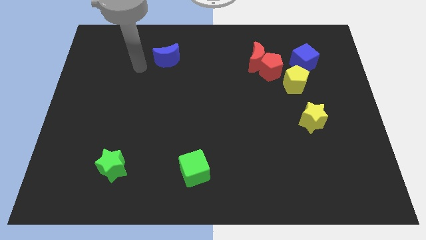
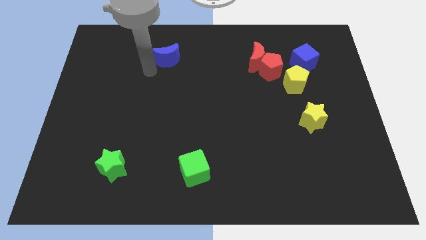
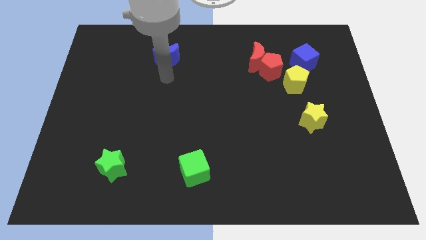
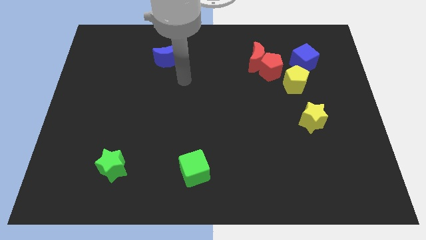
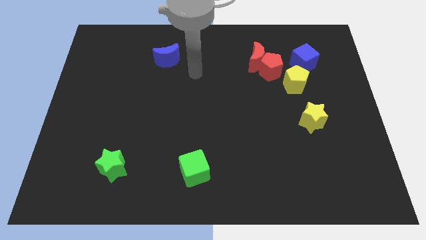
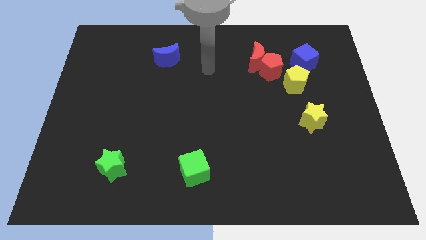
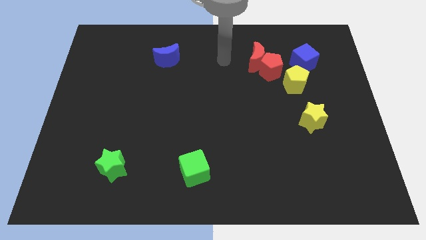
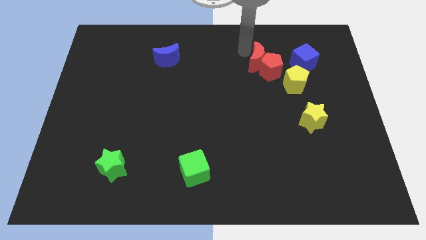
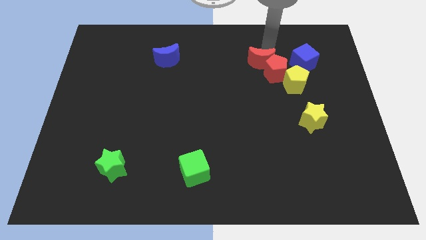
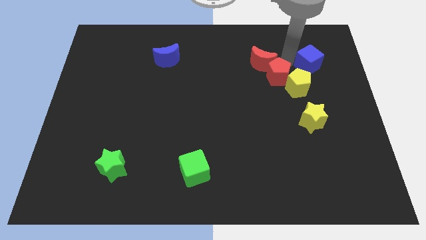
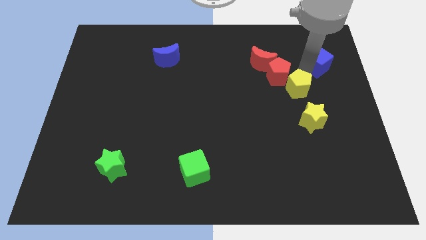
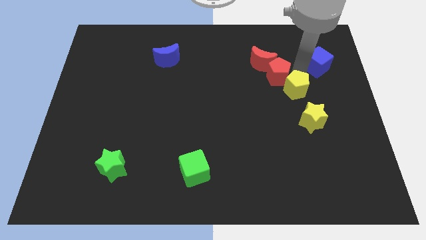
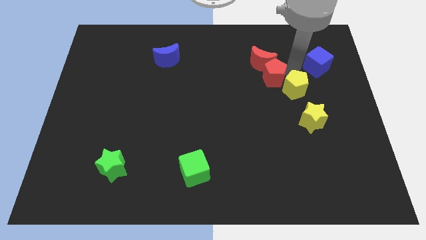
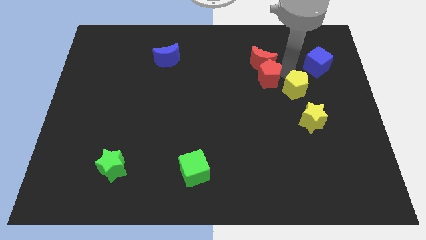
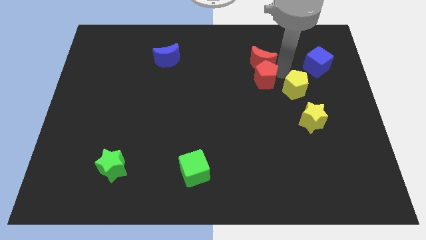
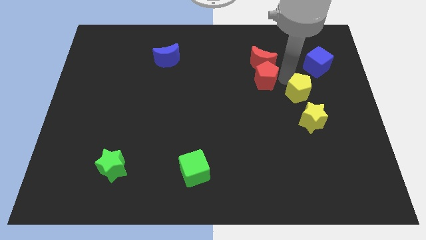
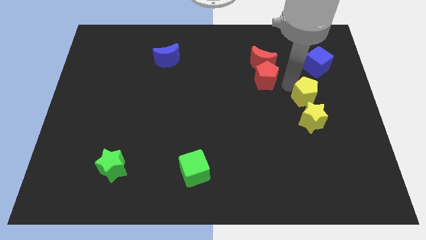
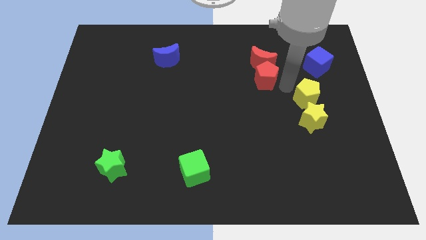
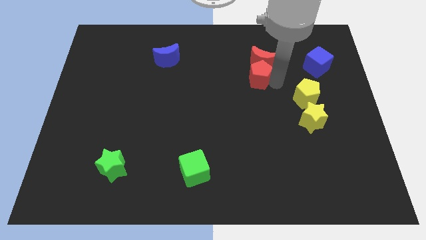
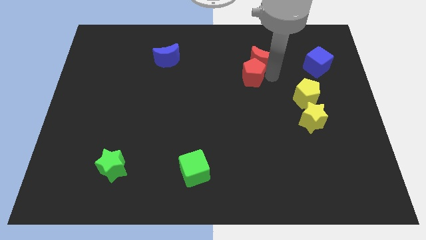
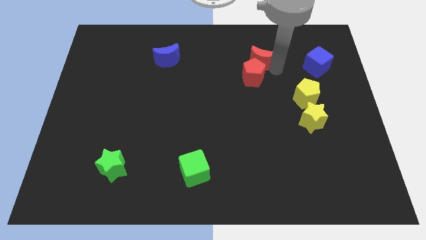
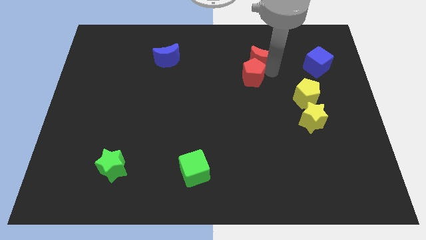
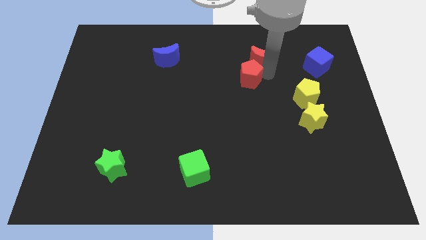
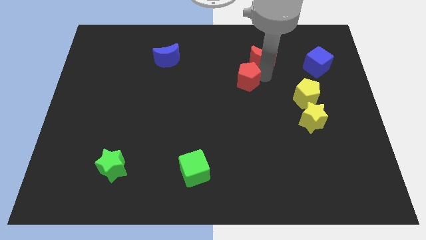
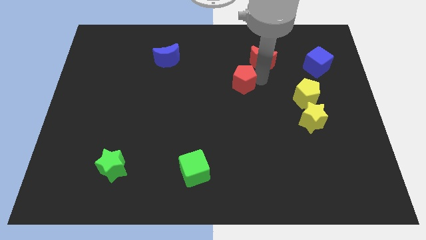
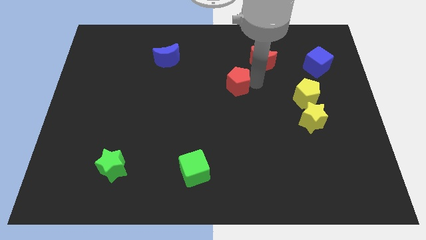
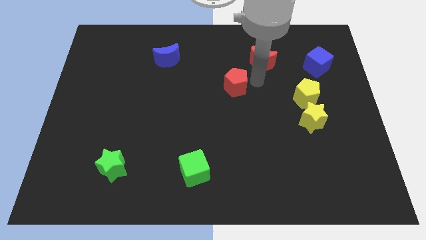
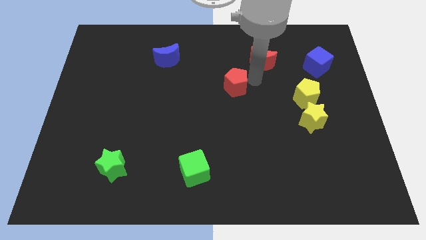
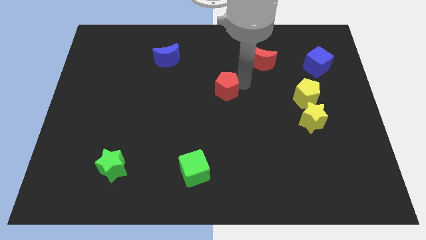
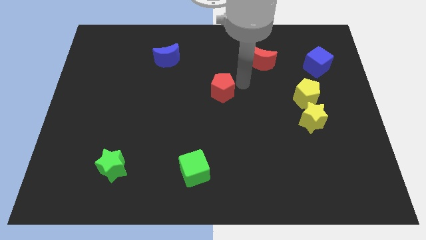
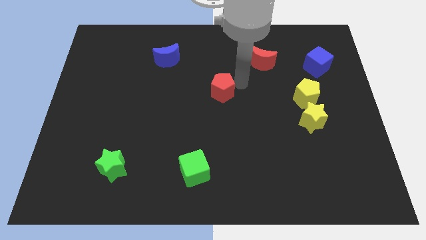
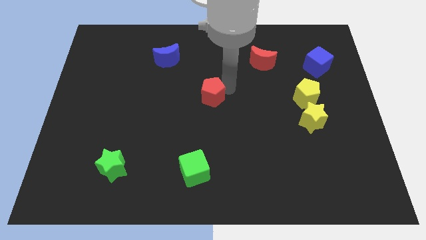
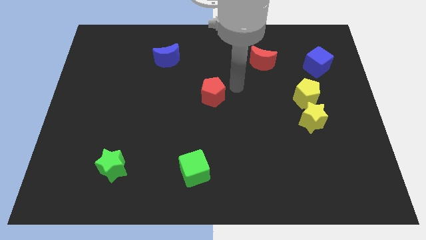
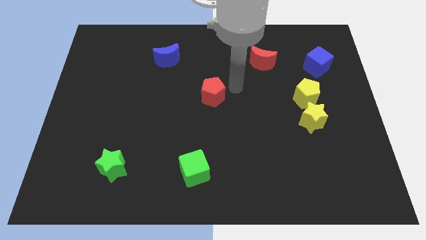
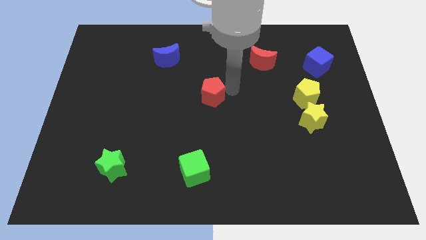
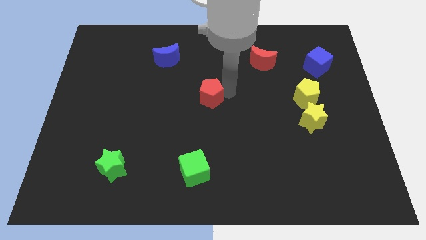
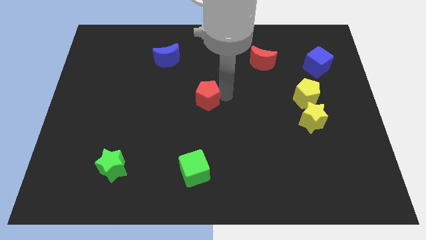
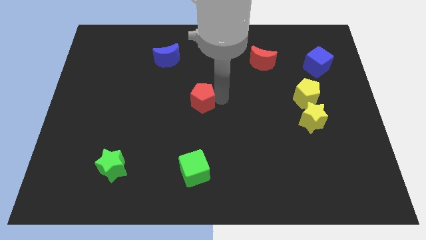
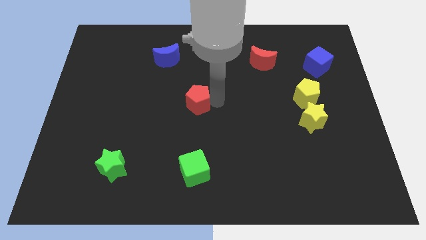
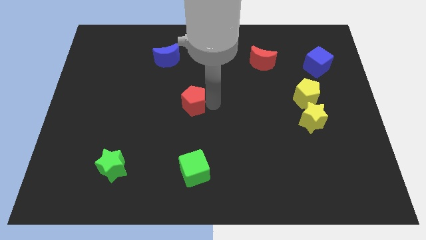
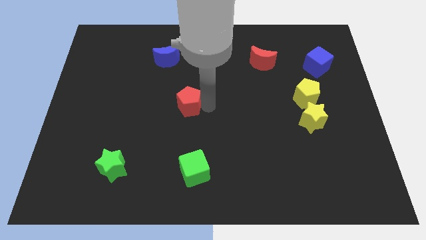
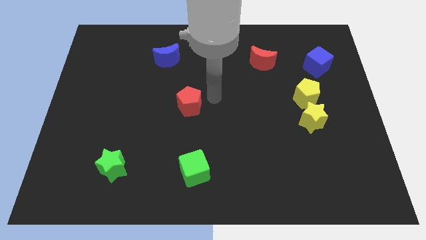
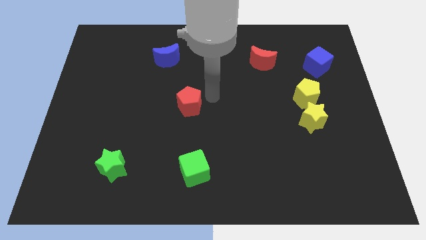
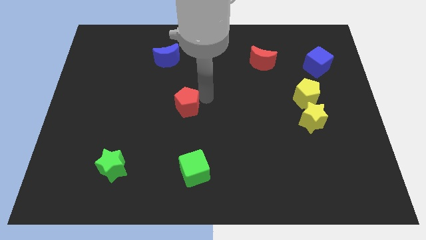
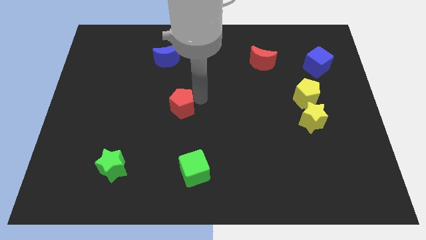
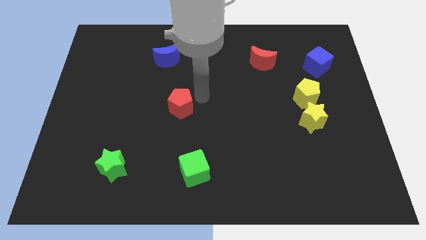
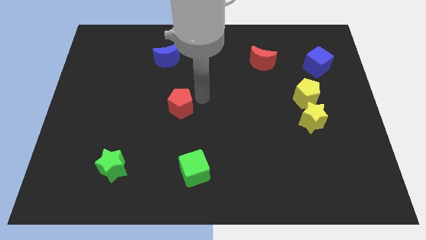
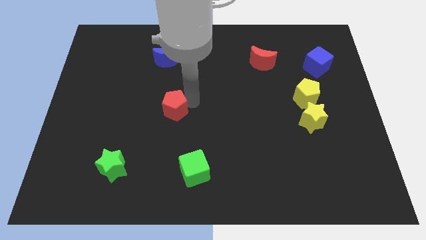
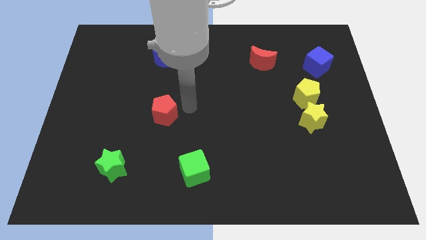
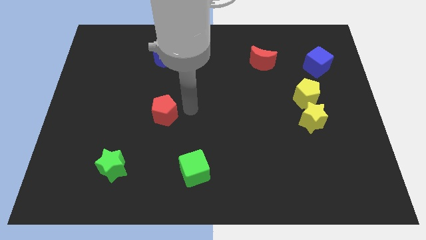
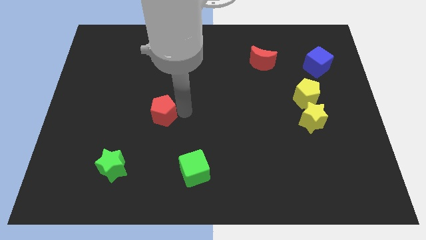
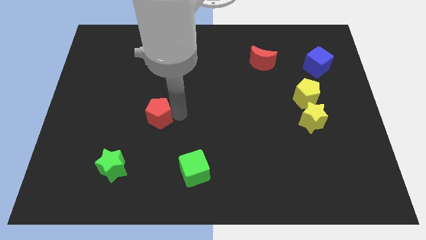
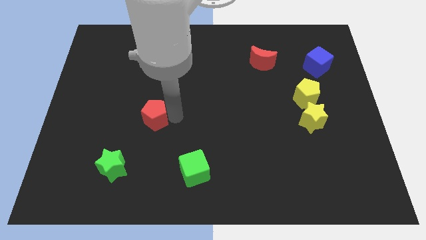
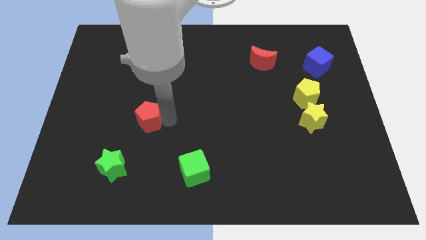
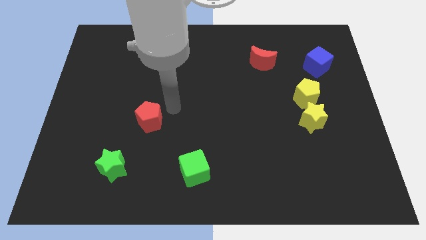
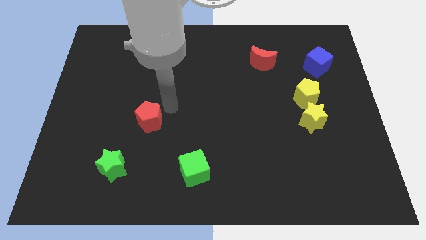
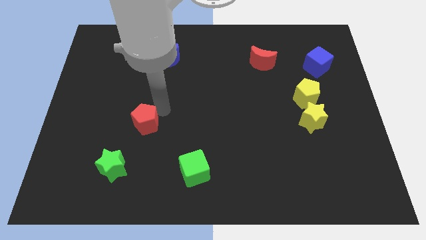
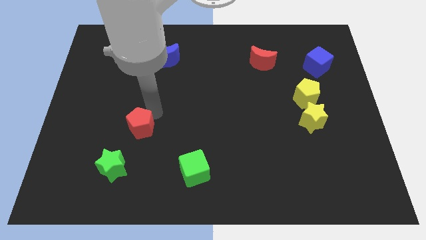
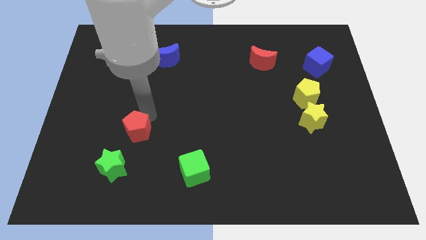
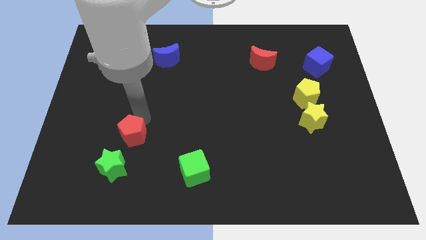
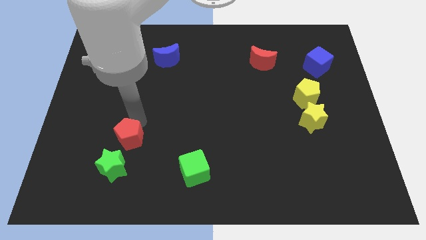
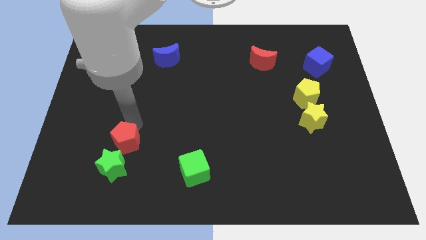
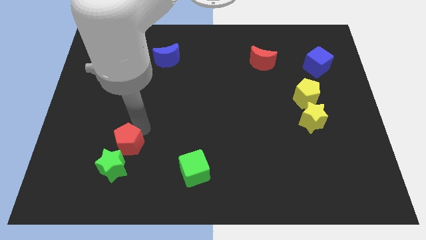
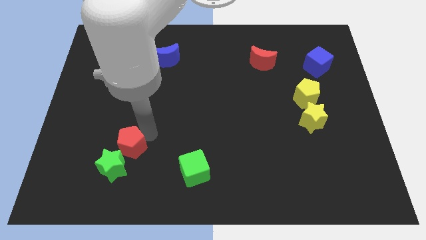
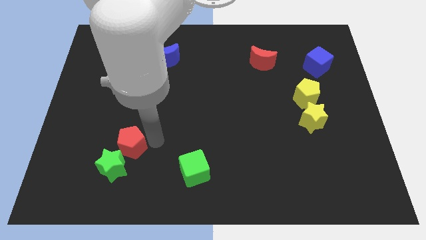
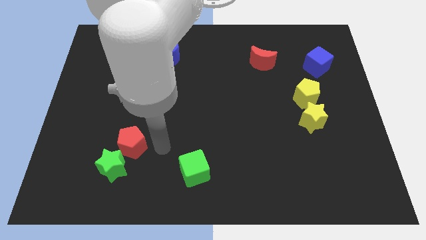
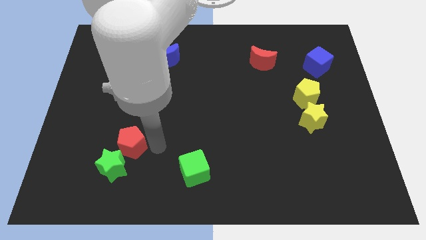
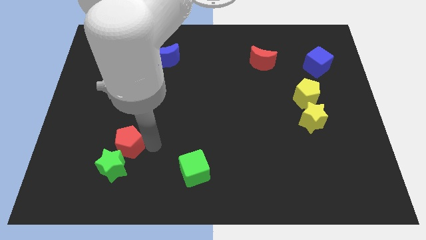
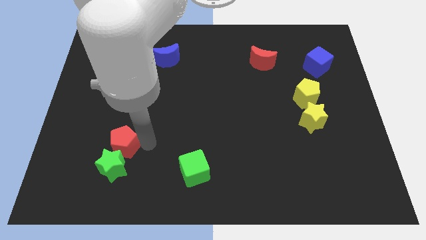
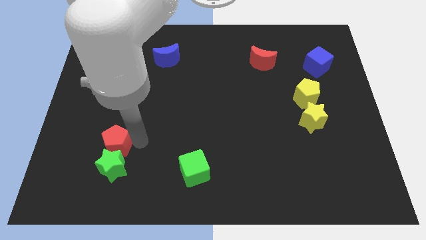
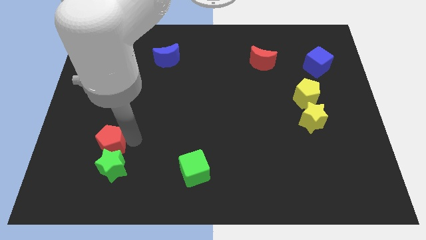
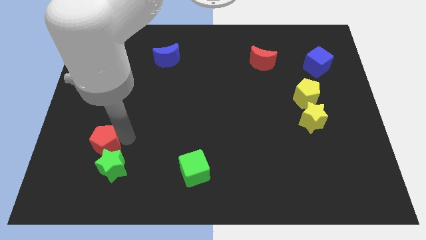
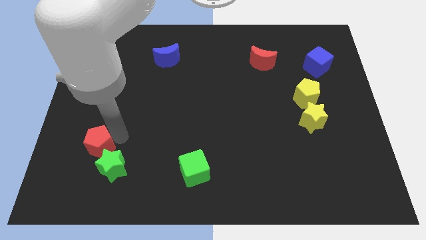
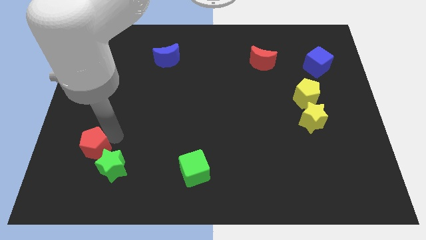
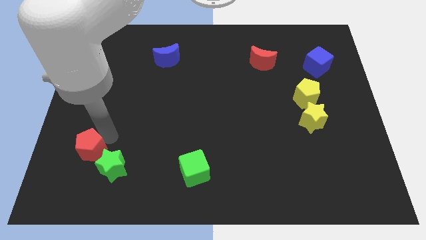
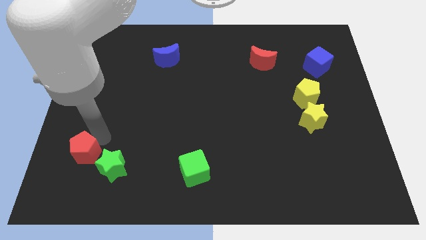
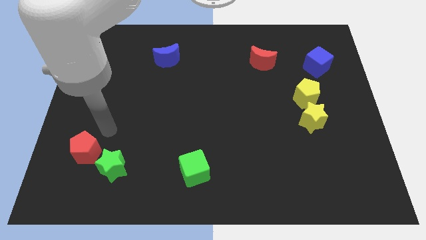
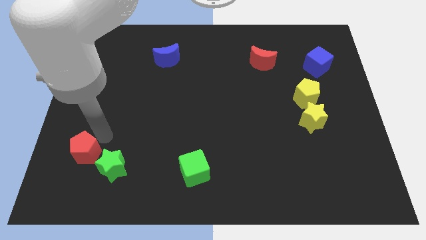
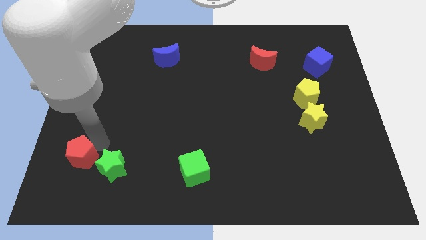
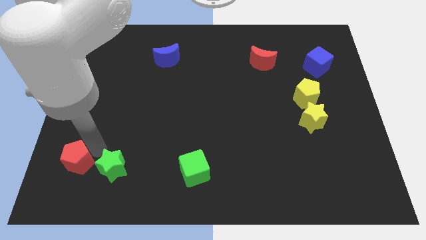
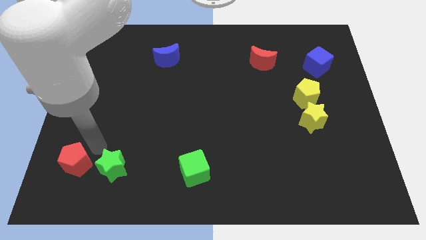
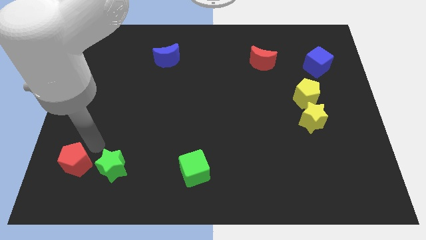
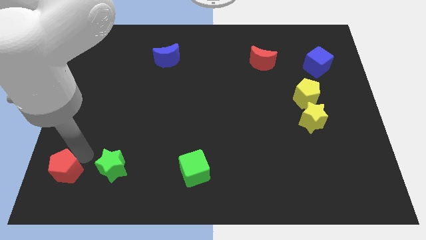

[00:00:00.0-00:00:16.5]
slide the red pentagon to the bottom left

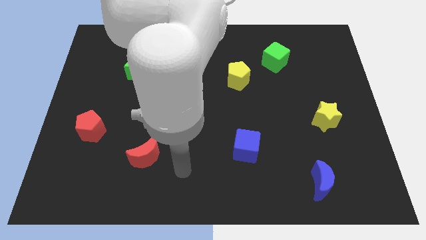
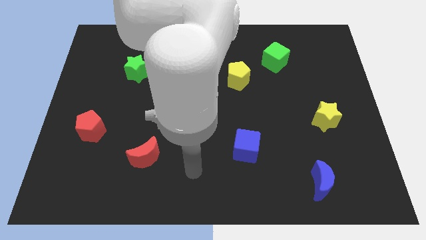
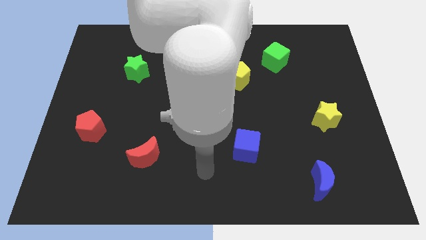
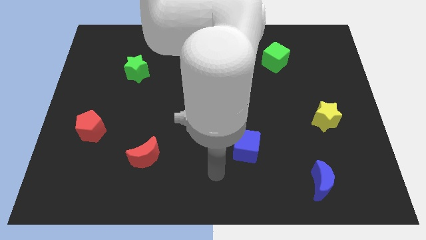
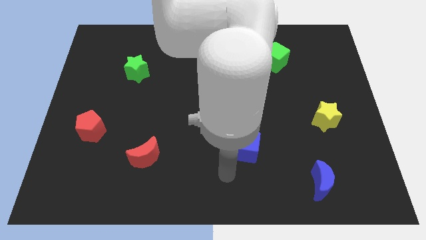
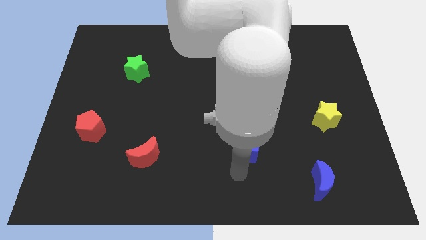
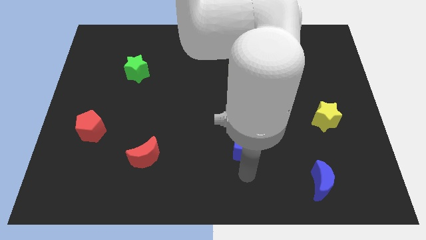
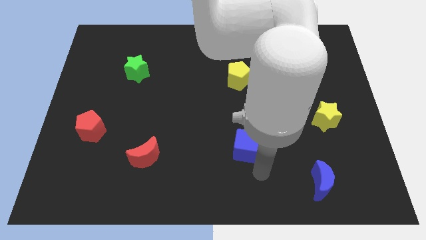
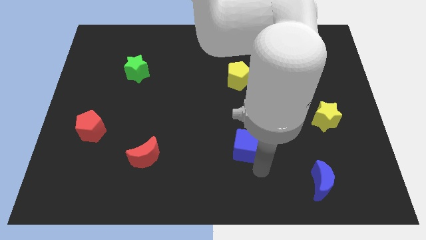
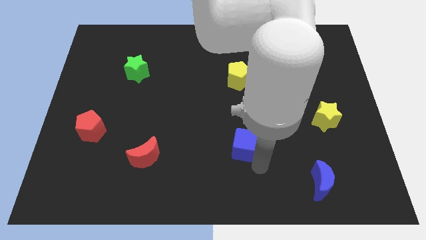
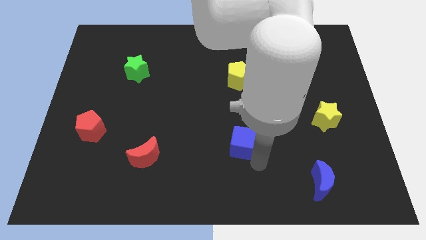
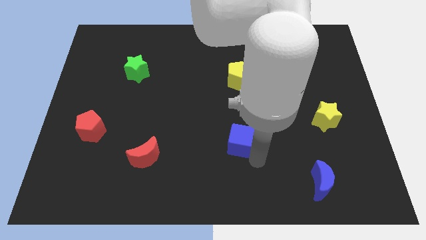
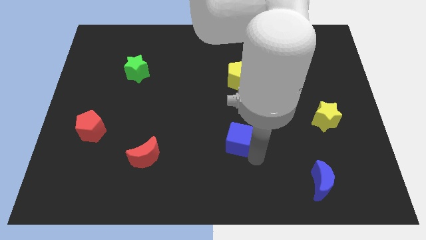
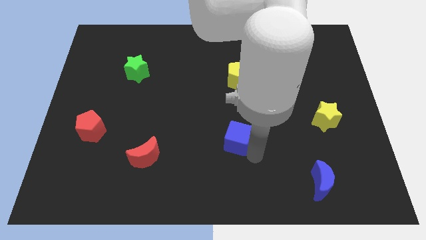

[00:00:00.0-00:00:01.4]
push the blue cube to the center
